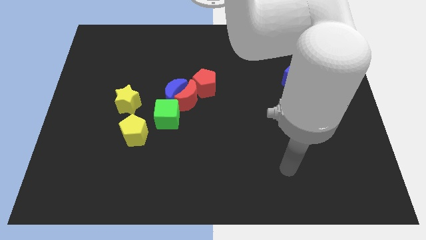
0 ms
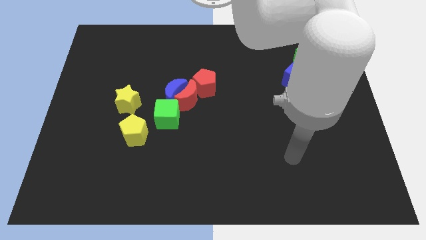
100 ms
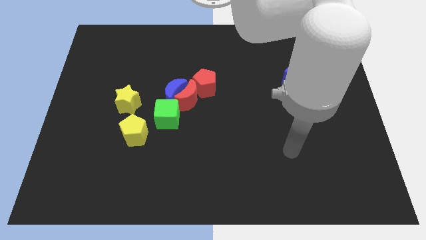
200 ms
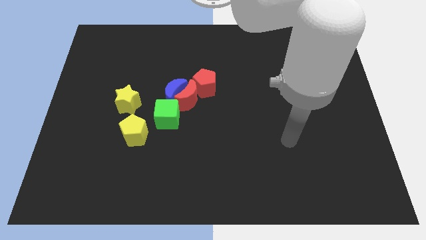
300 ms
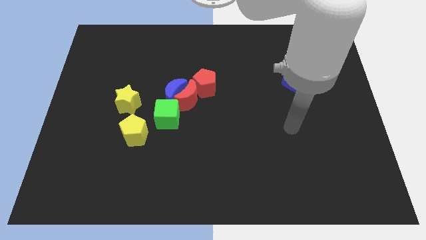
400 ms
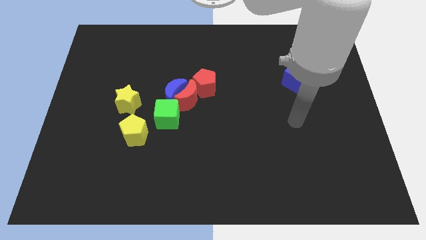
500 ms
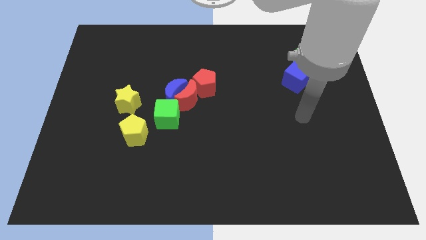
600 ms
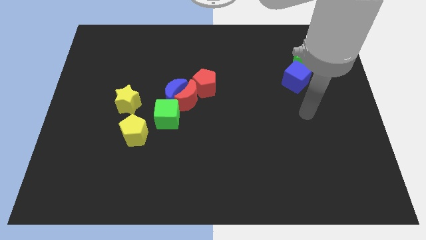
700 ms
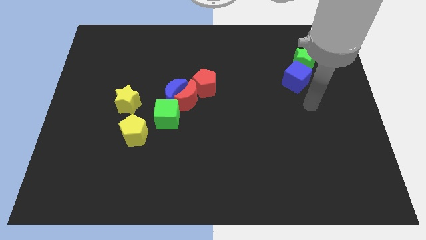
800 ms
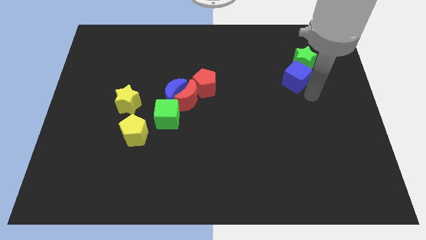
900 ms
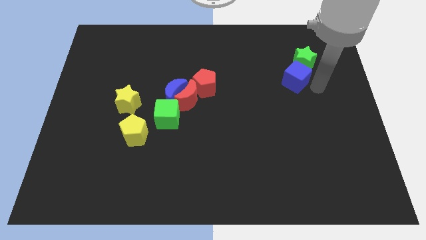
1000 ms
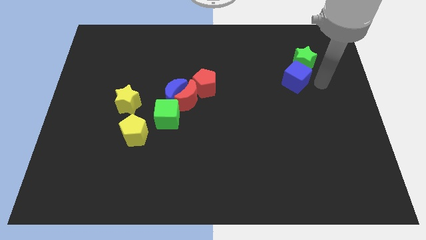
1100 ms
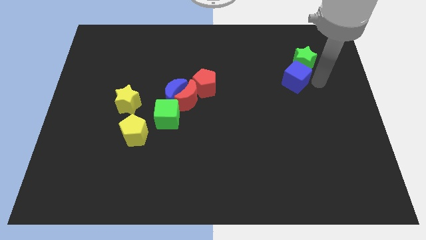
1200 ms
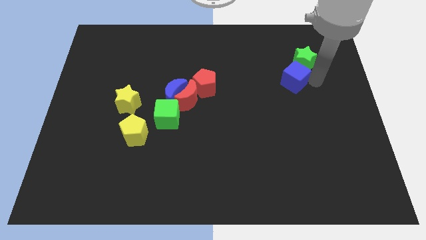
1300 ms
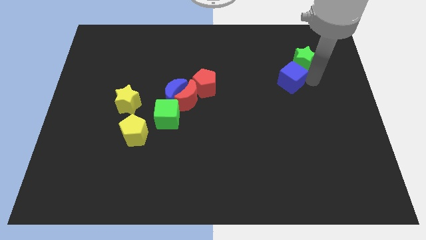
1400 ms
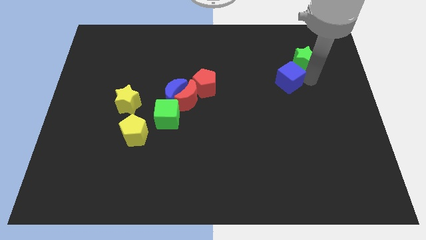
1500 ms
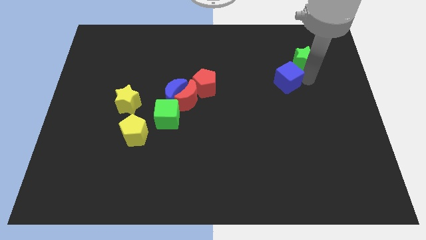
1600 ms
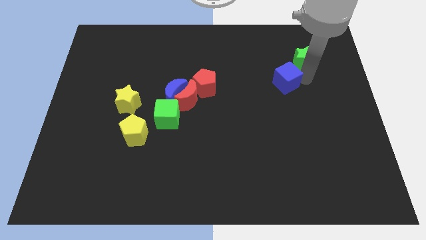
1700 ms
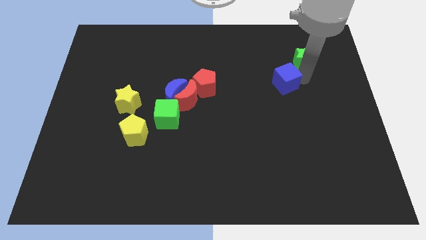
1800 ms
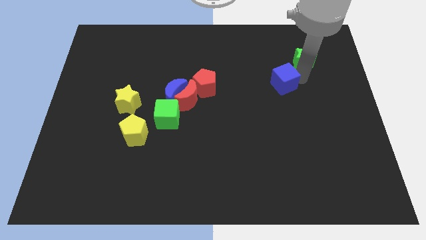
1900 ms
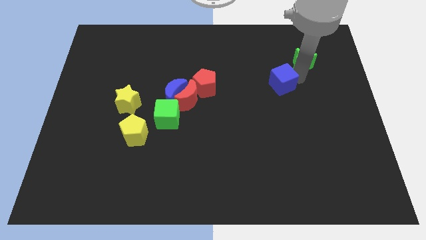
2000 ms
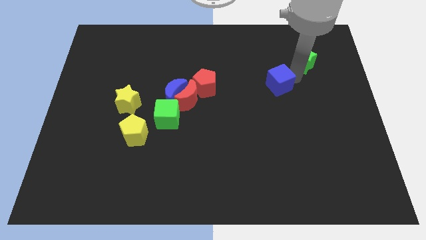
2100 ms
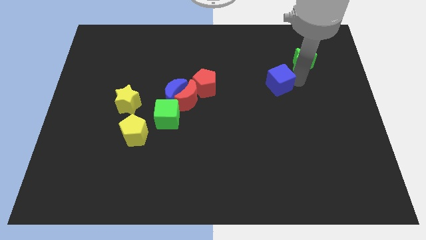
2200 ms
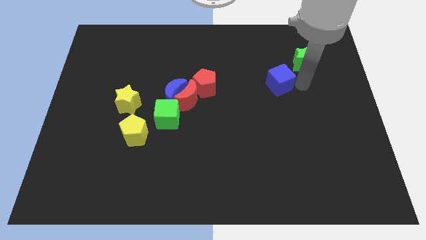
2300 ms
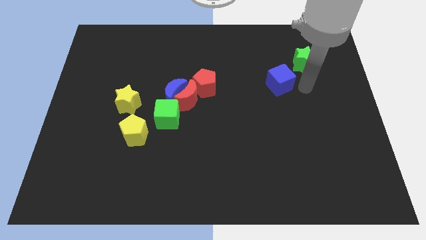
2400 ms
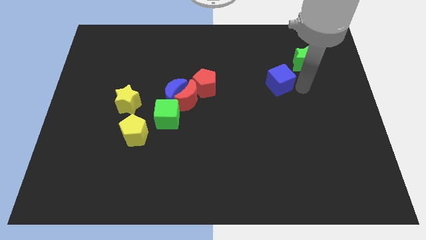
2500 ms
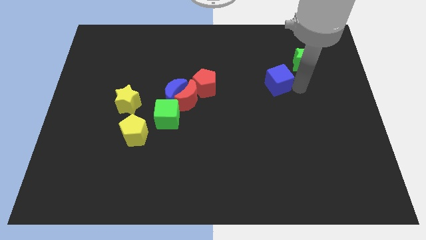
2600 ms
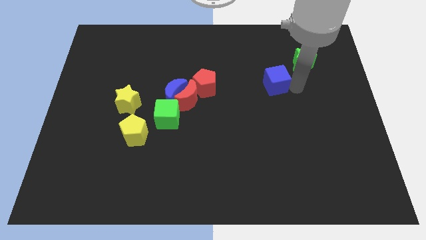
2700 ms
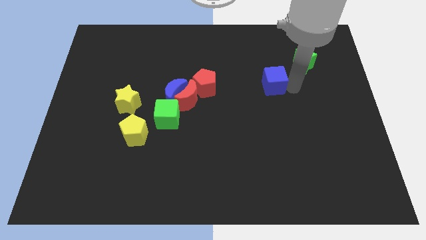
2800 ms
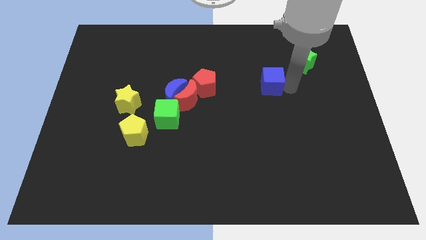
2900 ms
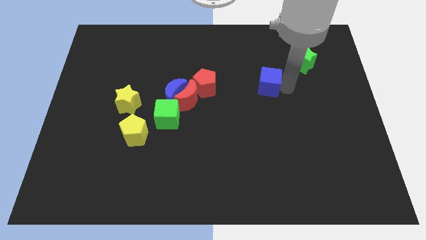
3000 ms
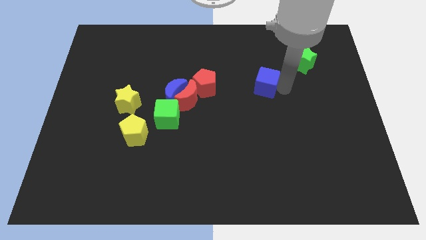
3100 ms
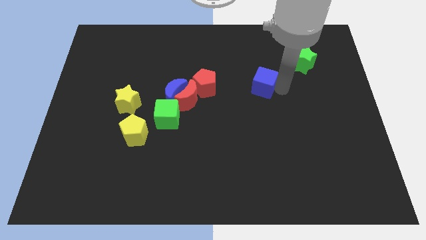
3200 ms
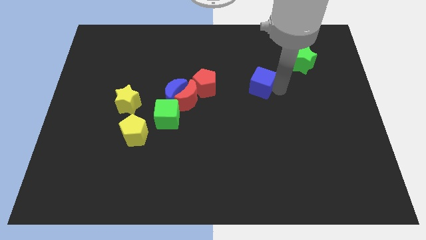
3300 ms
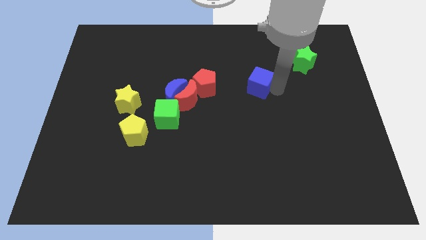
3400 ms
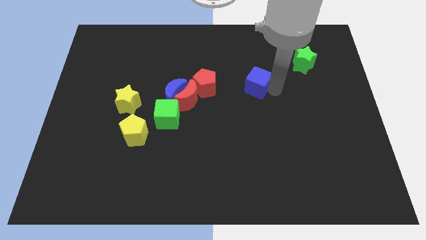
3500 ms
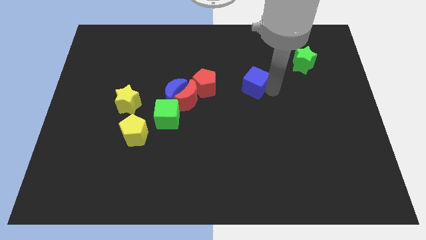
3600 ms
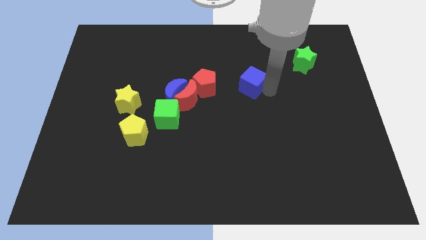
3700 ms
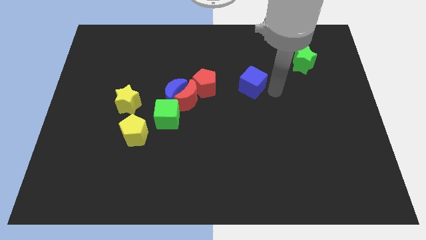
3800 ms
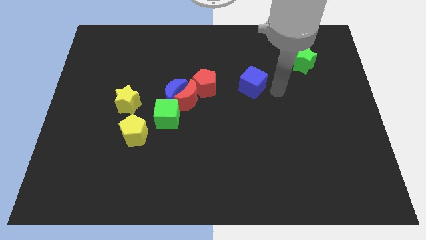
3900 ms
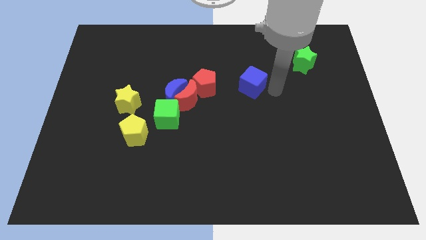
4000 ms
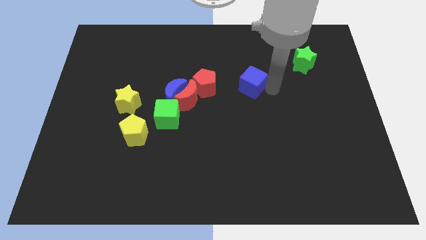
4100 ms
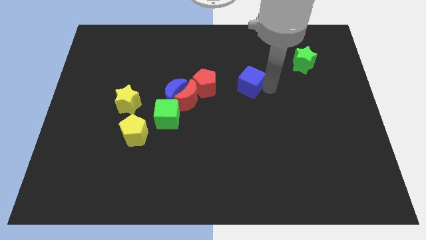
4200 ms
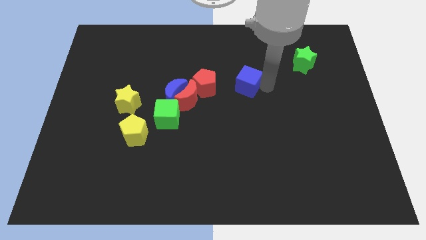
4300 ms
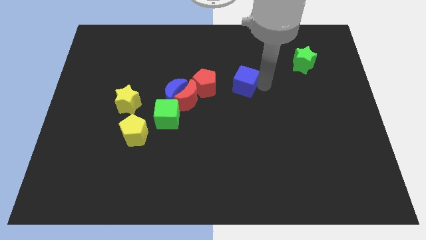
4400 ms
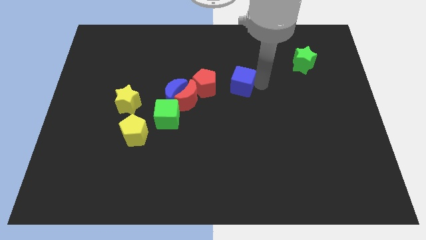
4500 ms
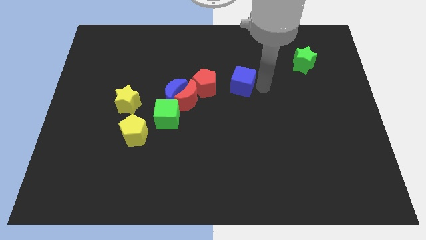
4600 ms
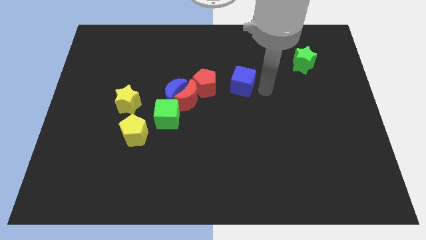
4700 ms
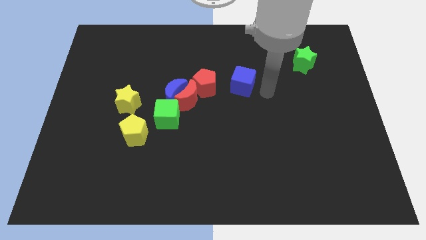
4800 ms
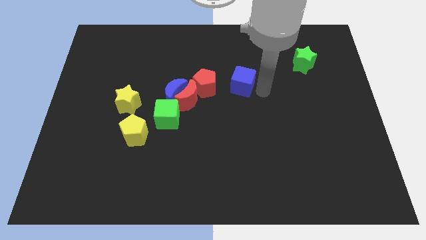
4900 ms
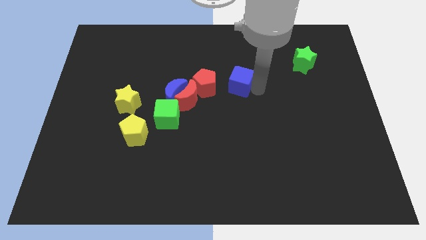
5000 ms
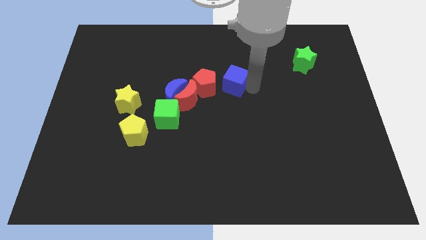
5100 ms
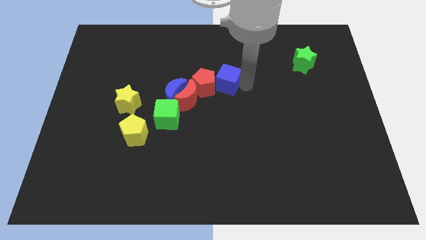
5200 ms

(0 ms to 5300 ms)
push the blue cube close to the red pentagon

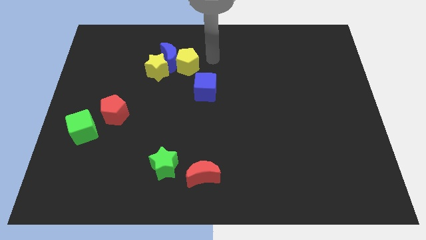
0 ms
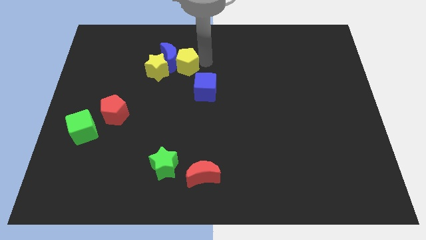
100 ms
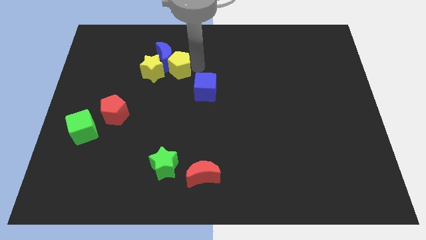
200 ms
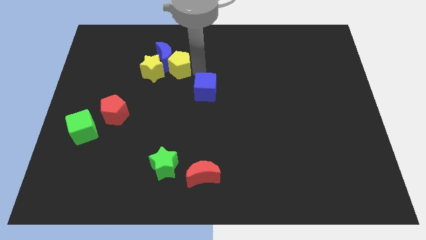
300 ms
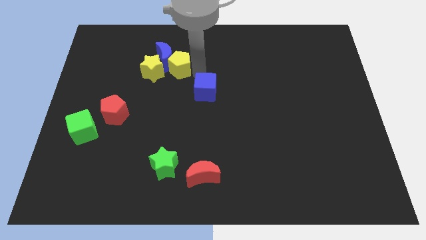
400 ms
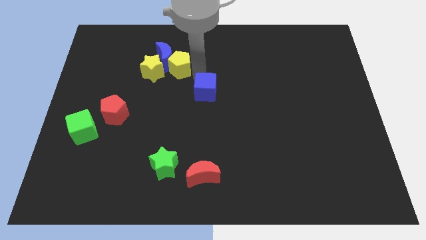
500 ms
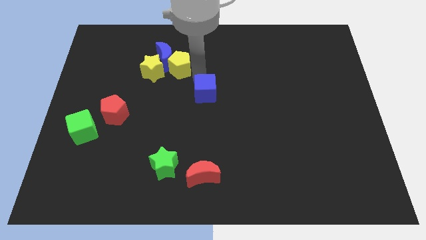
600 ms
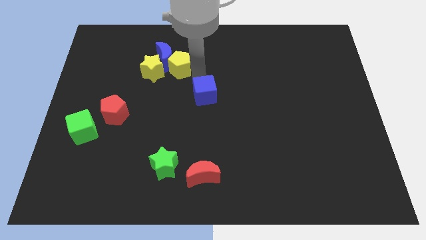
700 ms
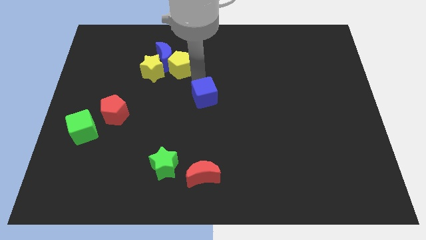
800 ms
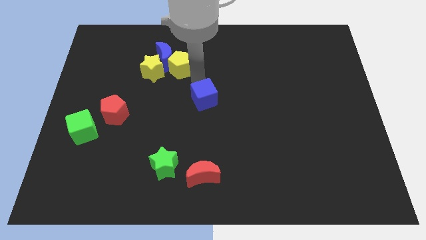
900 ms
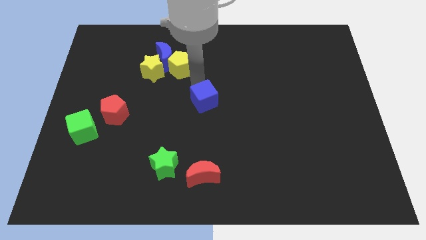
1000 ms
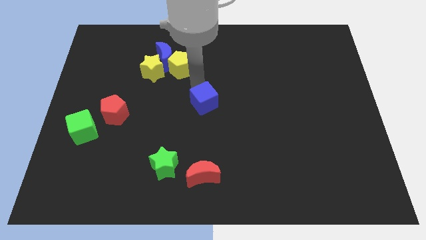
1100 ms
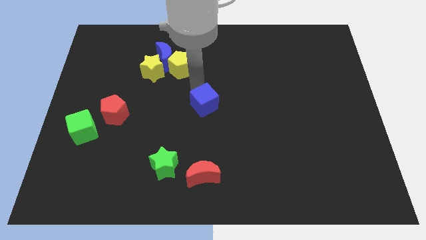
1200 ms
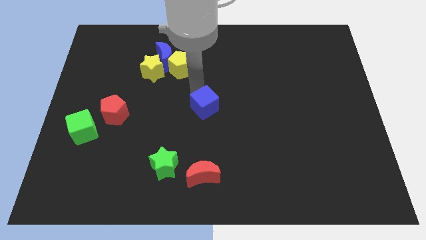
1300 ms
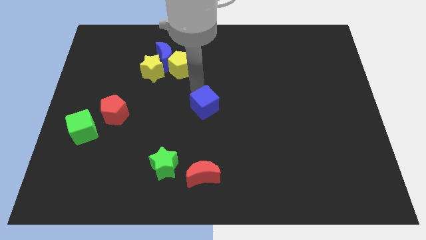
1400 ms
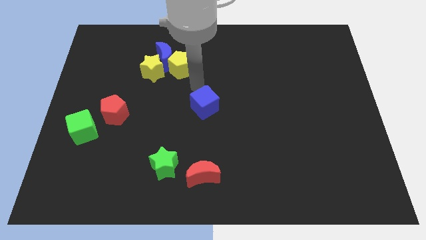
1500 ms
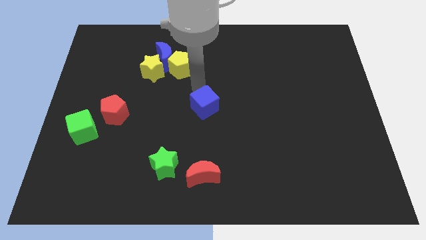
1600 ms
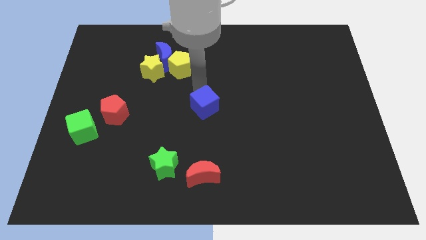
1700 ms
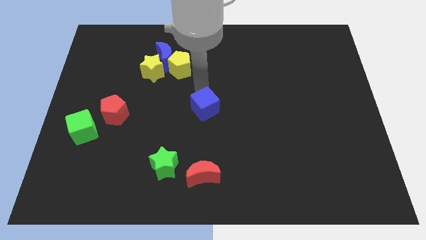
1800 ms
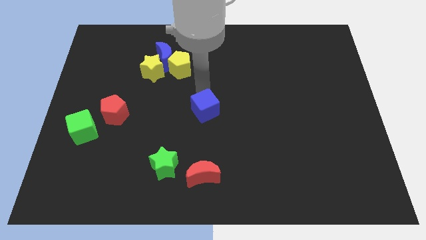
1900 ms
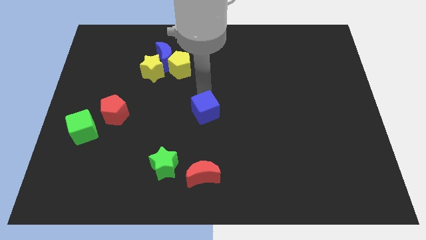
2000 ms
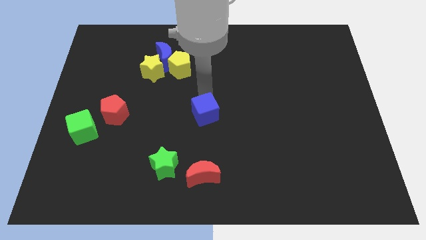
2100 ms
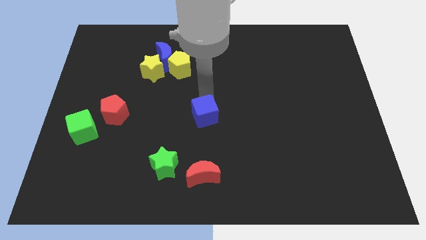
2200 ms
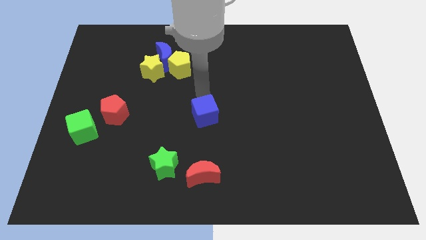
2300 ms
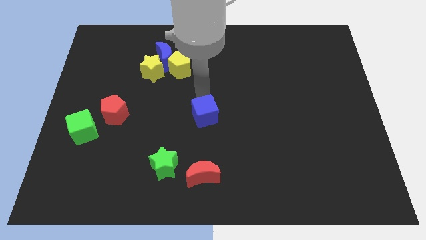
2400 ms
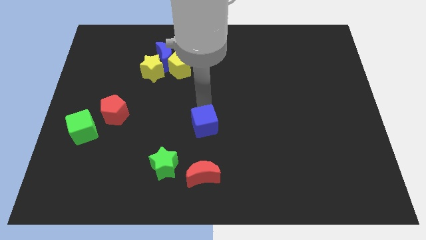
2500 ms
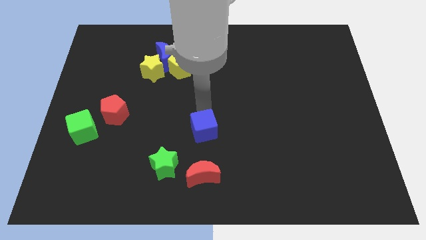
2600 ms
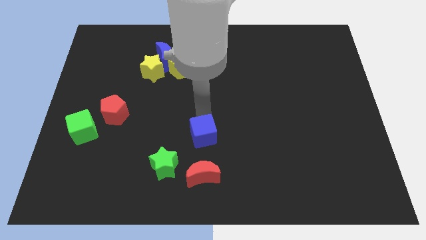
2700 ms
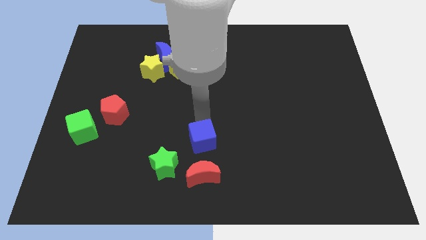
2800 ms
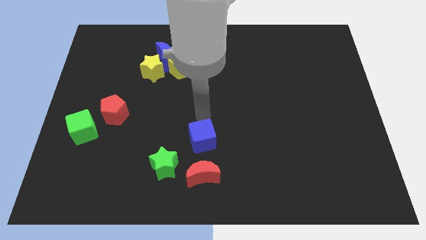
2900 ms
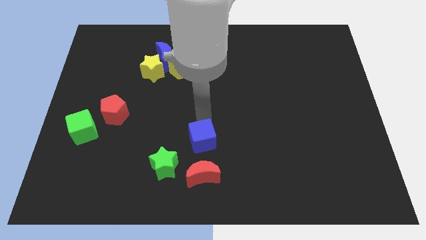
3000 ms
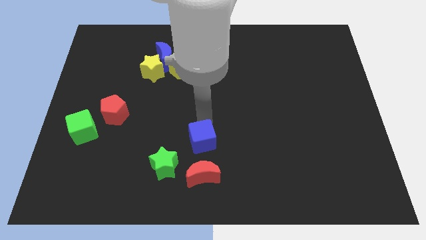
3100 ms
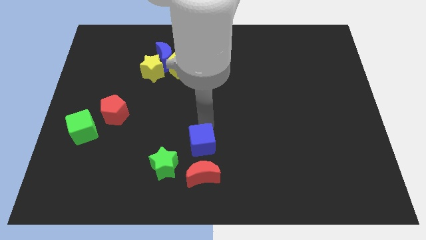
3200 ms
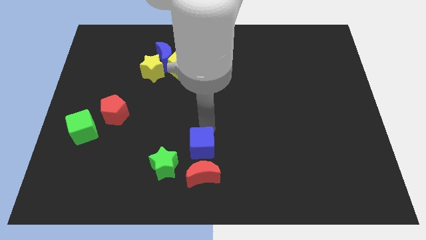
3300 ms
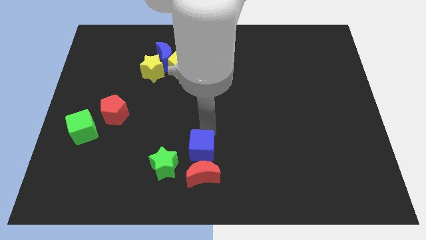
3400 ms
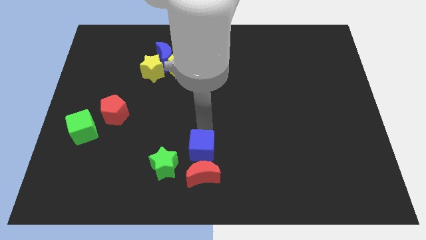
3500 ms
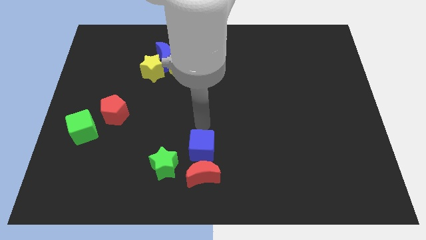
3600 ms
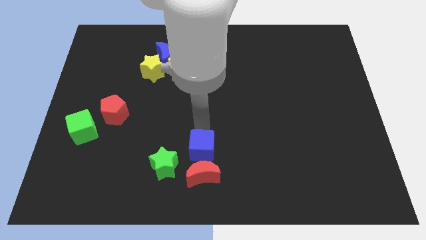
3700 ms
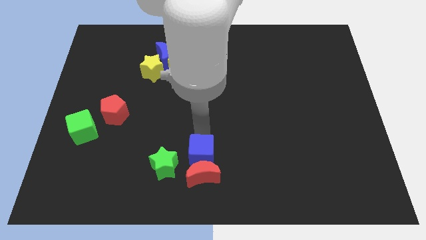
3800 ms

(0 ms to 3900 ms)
put the blue cube close to the red moon
